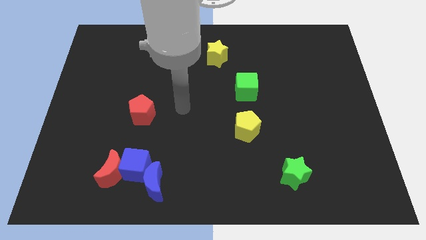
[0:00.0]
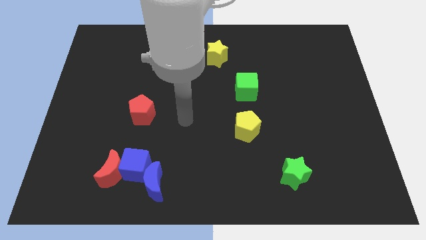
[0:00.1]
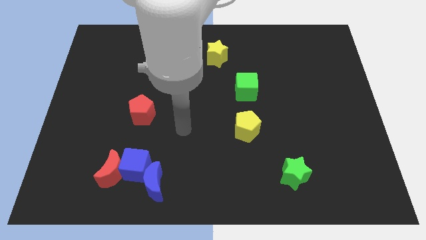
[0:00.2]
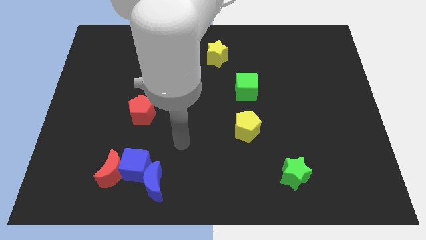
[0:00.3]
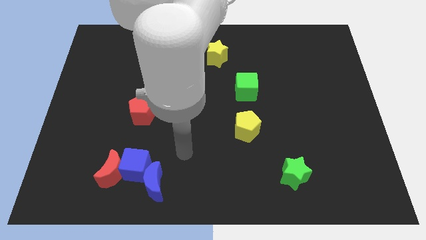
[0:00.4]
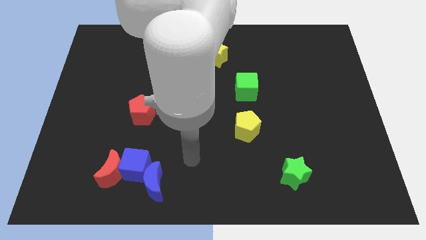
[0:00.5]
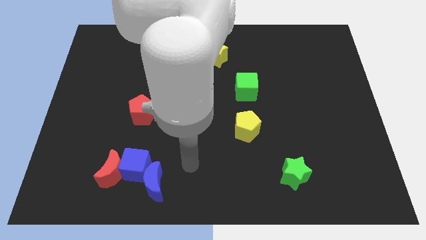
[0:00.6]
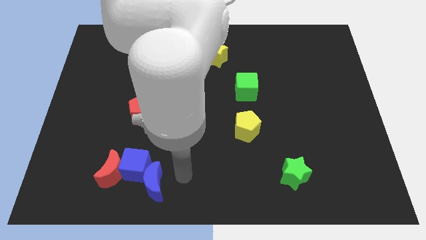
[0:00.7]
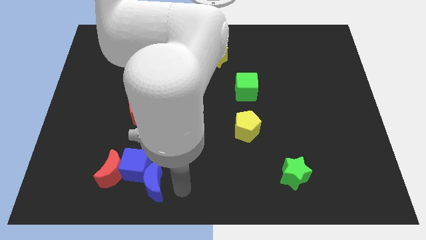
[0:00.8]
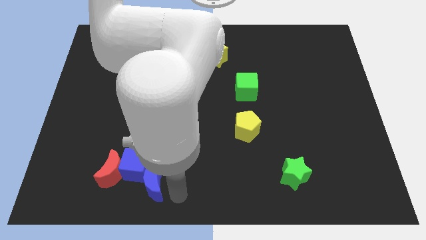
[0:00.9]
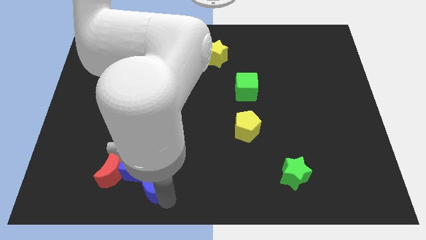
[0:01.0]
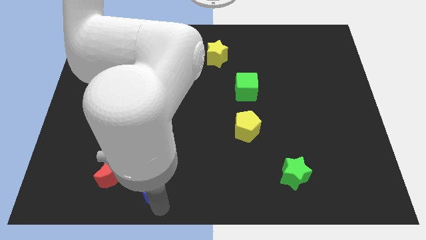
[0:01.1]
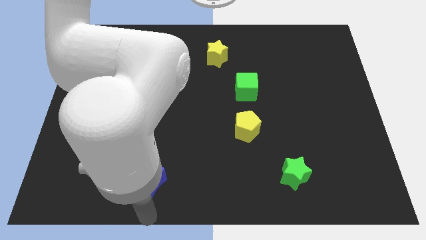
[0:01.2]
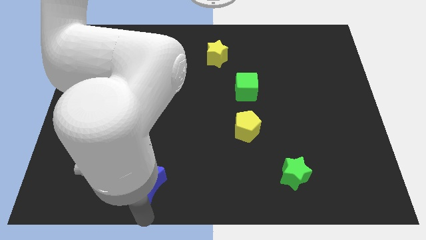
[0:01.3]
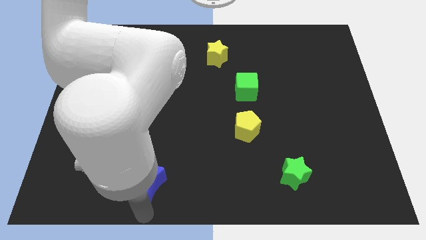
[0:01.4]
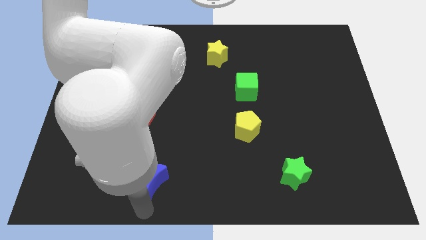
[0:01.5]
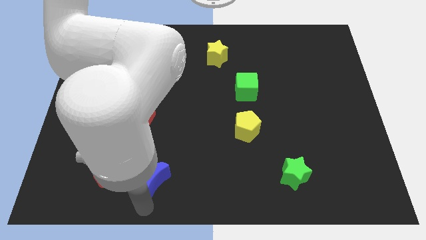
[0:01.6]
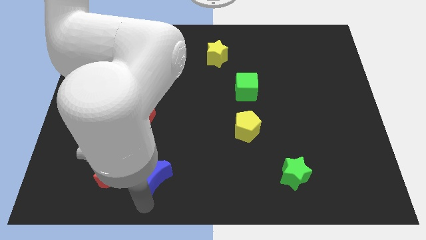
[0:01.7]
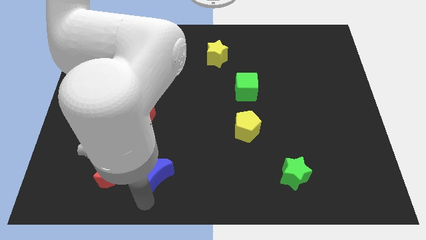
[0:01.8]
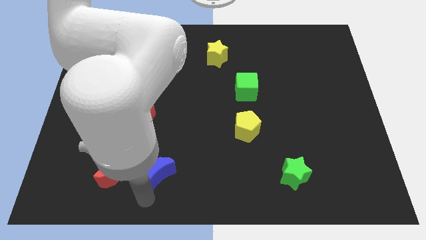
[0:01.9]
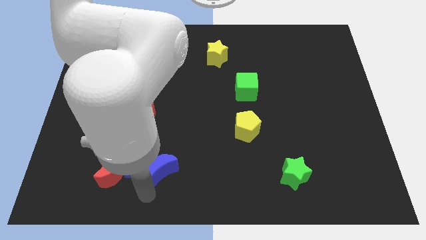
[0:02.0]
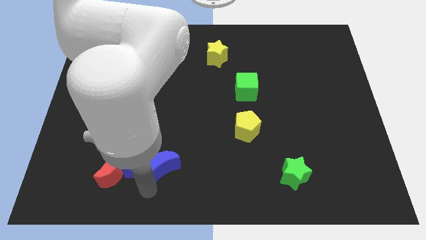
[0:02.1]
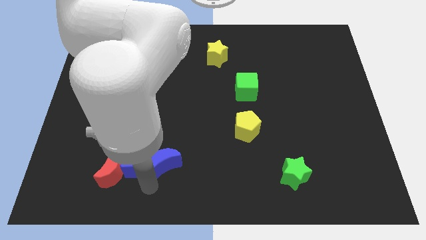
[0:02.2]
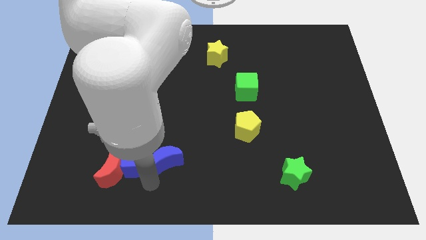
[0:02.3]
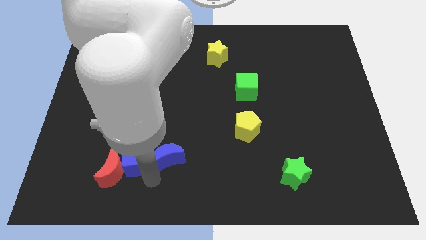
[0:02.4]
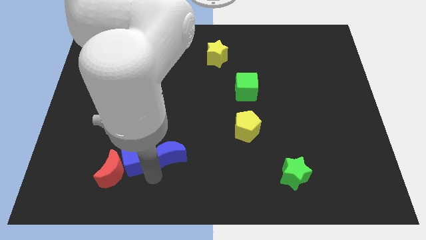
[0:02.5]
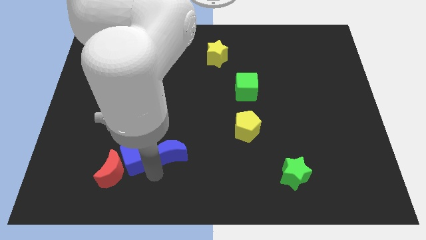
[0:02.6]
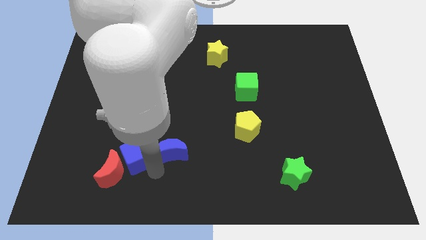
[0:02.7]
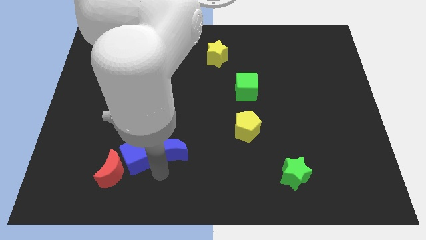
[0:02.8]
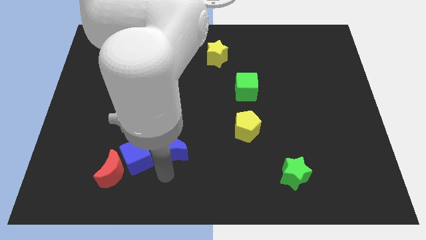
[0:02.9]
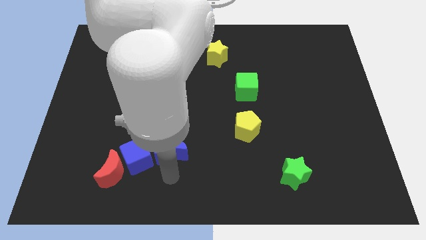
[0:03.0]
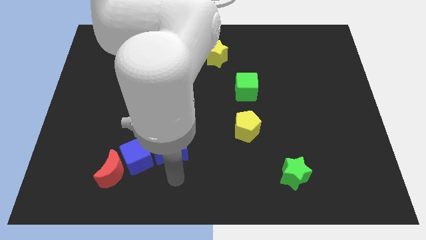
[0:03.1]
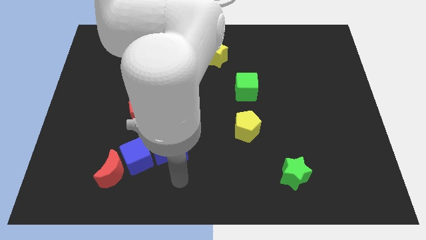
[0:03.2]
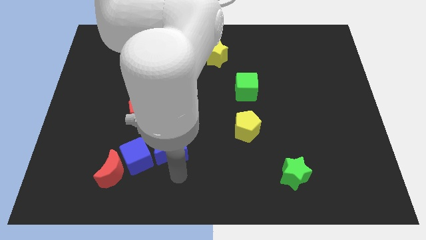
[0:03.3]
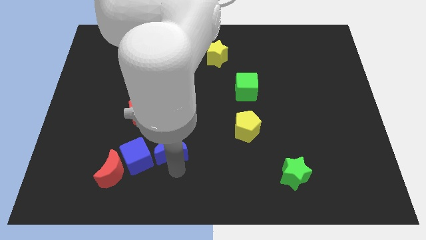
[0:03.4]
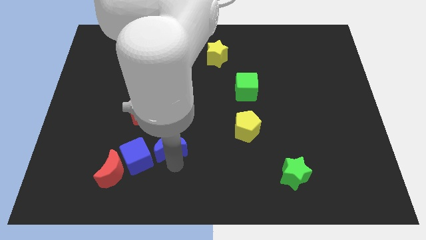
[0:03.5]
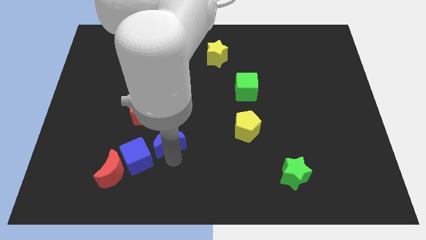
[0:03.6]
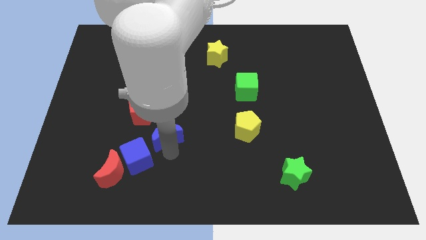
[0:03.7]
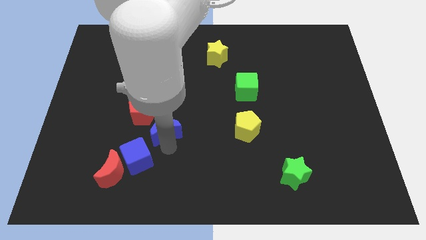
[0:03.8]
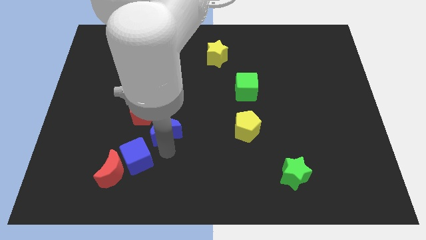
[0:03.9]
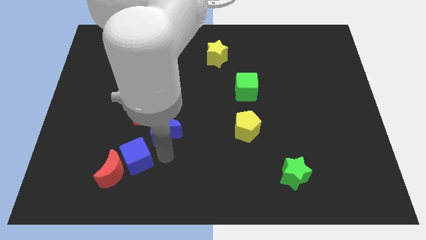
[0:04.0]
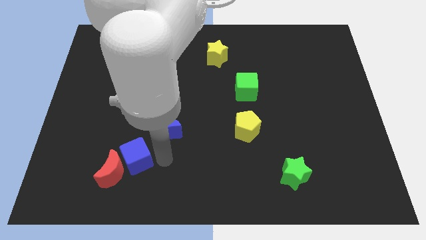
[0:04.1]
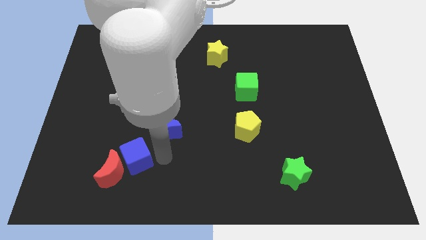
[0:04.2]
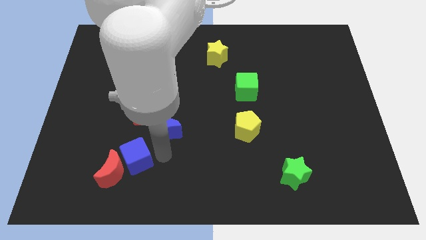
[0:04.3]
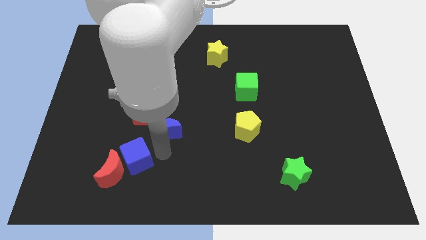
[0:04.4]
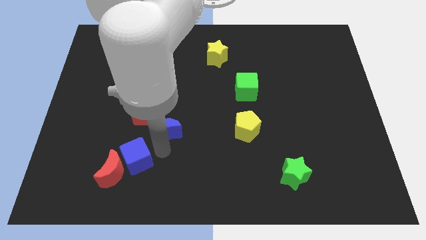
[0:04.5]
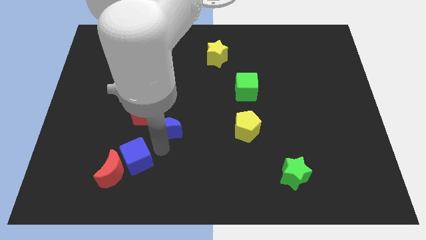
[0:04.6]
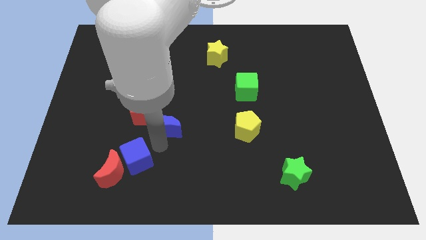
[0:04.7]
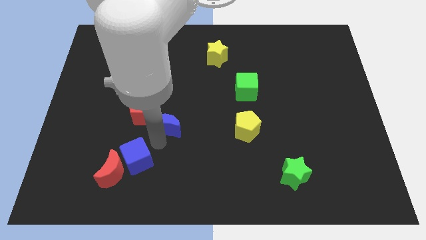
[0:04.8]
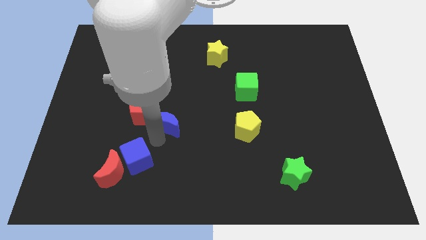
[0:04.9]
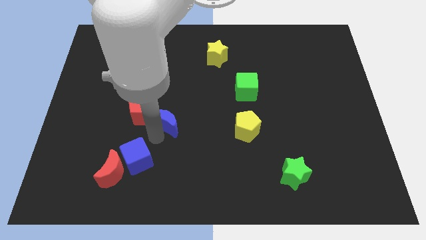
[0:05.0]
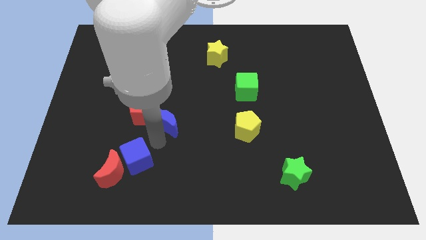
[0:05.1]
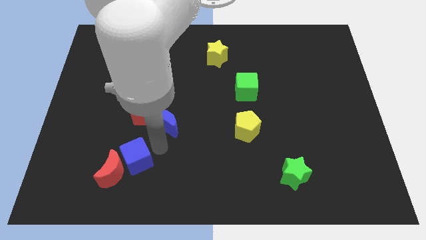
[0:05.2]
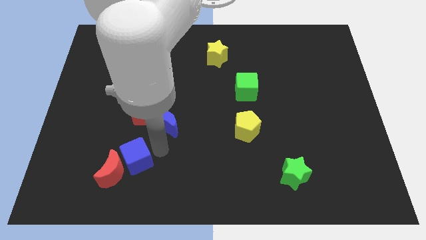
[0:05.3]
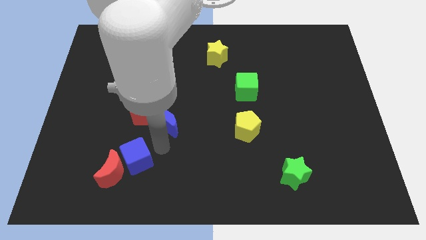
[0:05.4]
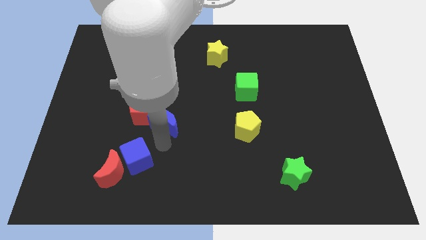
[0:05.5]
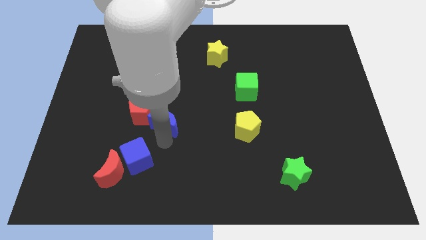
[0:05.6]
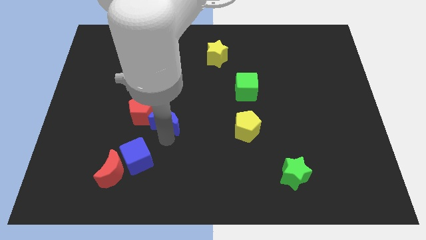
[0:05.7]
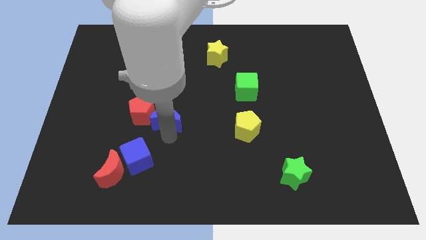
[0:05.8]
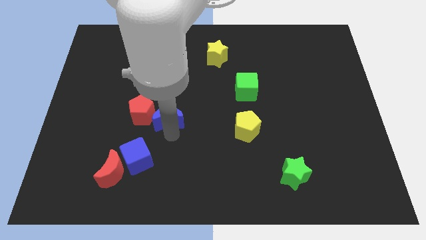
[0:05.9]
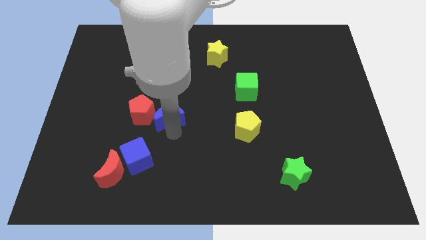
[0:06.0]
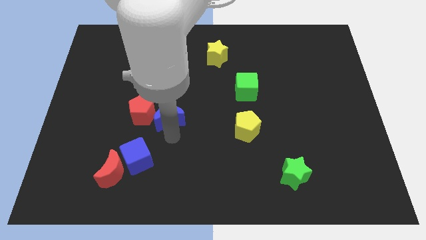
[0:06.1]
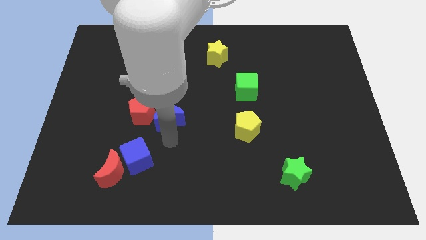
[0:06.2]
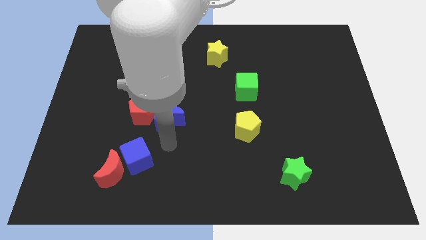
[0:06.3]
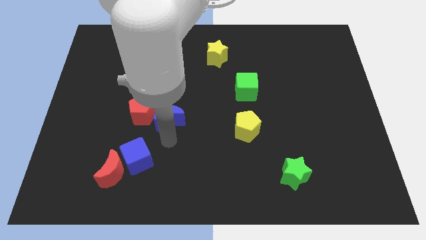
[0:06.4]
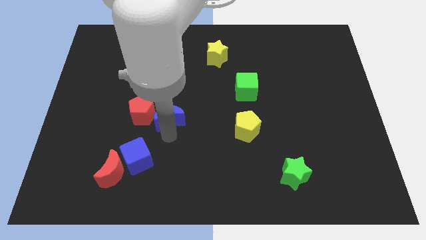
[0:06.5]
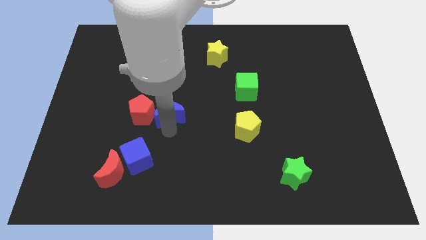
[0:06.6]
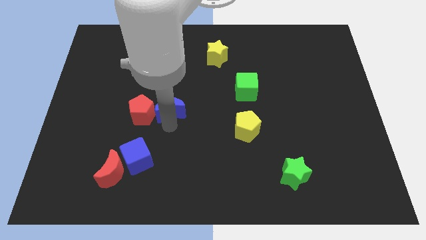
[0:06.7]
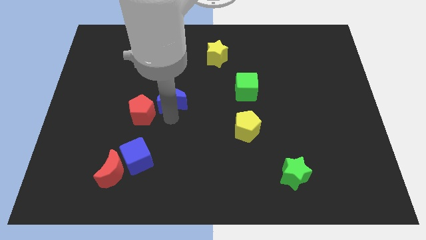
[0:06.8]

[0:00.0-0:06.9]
push the blue moon upwards

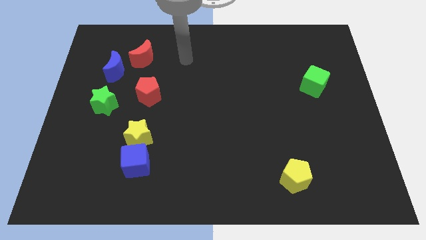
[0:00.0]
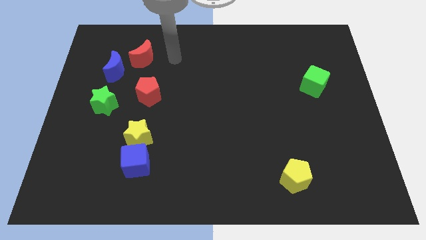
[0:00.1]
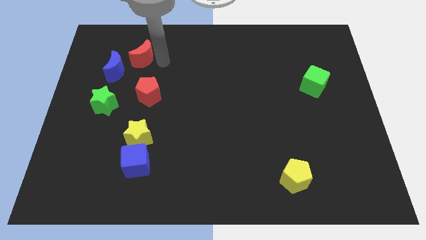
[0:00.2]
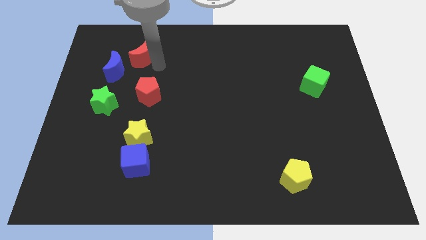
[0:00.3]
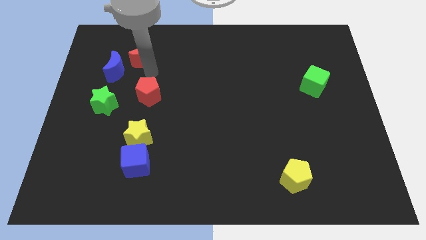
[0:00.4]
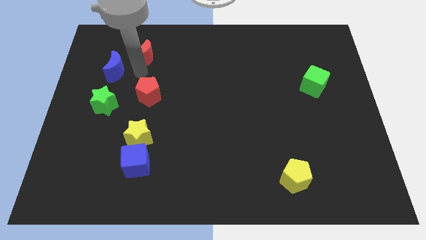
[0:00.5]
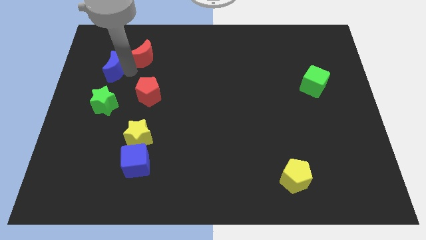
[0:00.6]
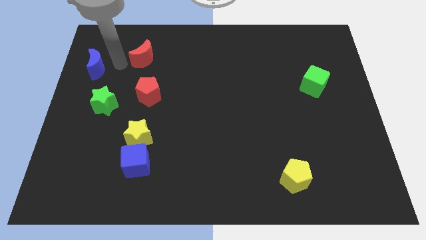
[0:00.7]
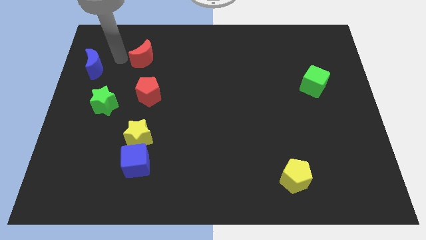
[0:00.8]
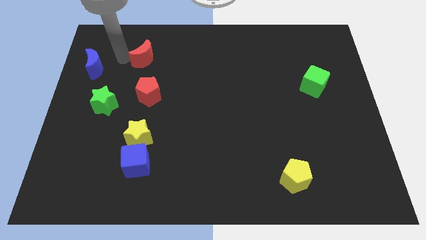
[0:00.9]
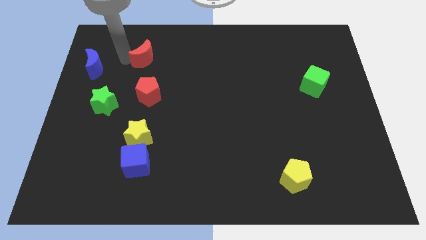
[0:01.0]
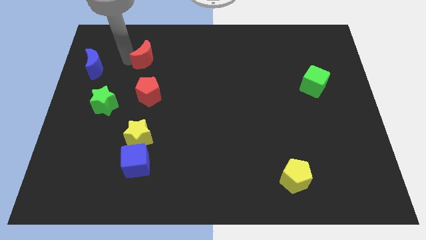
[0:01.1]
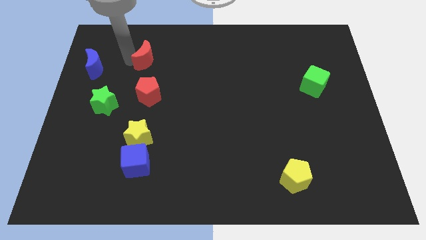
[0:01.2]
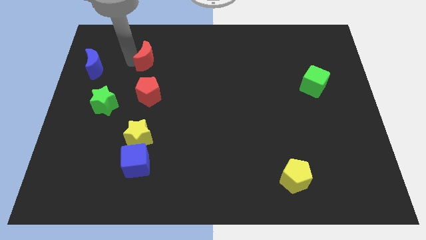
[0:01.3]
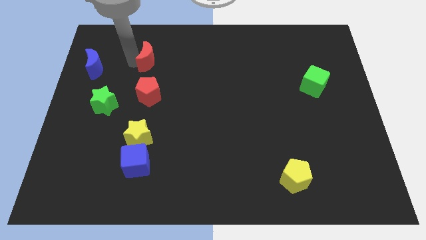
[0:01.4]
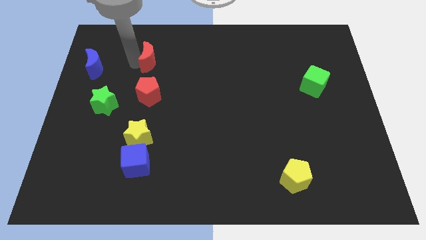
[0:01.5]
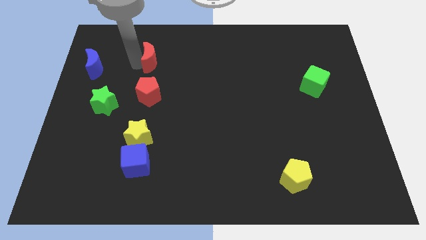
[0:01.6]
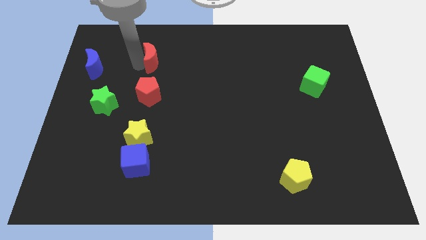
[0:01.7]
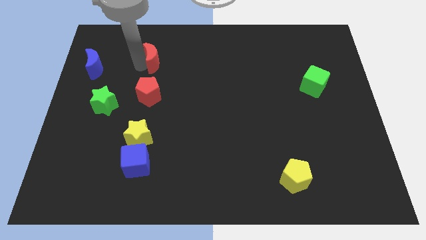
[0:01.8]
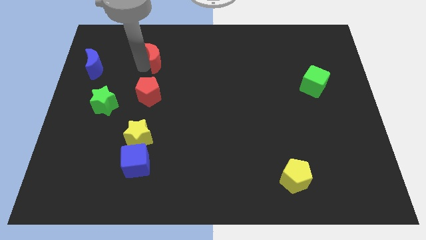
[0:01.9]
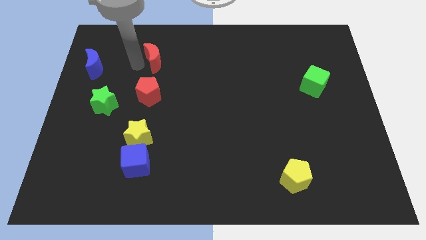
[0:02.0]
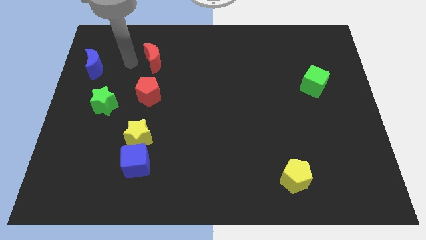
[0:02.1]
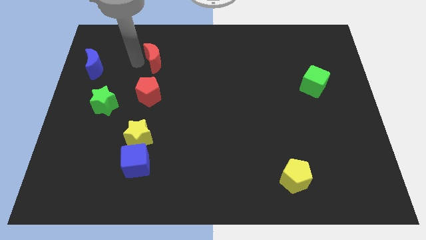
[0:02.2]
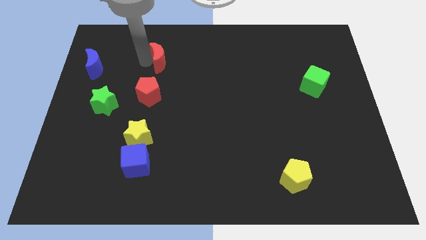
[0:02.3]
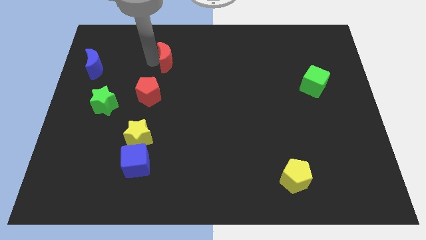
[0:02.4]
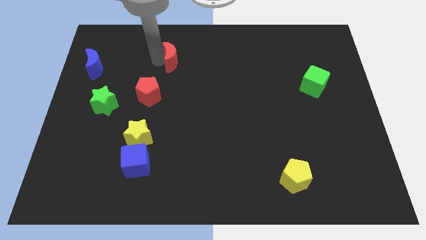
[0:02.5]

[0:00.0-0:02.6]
slightly push the red moon to the right
